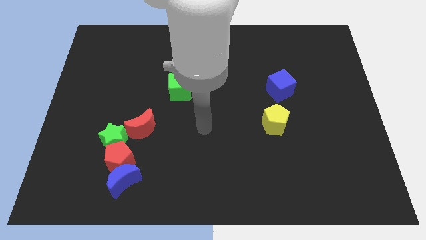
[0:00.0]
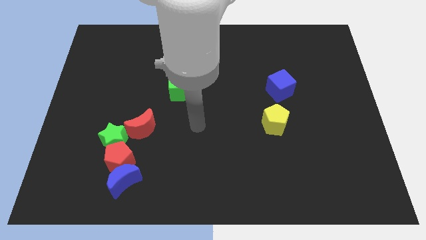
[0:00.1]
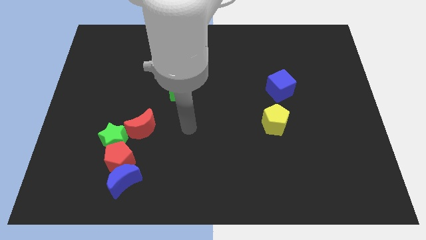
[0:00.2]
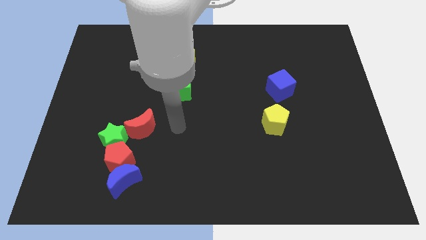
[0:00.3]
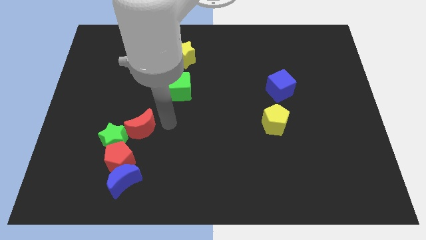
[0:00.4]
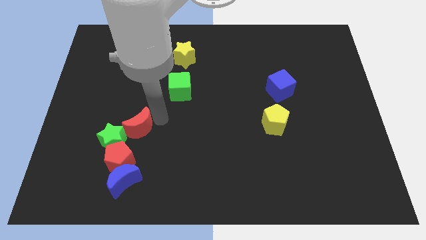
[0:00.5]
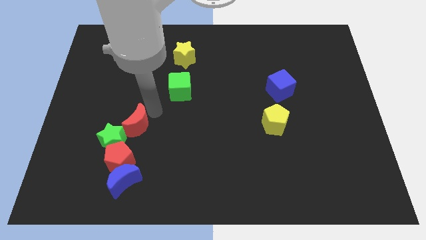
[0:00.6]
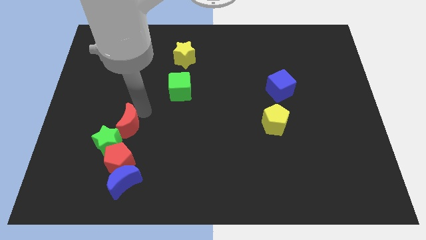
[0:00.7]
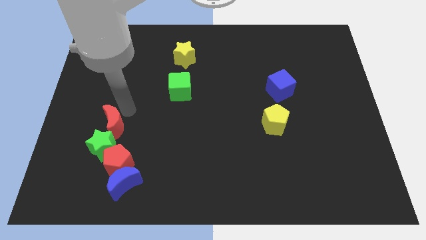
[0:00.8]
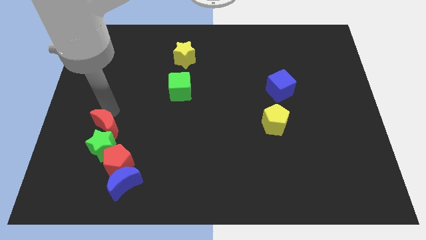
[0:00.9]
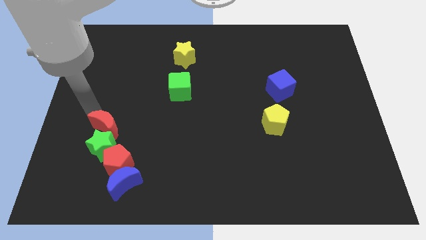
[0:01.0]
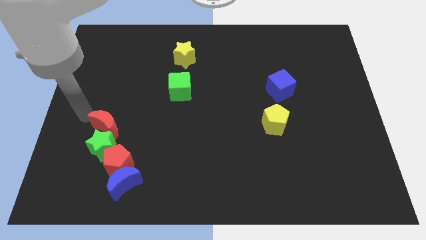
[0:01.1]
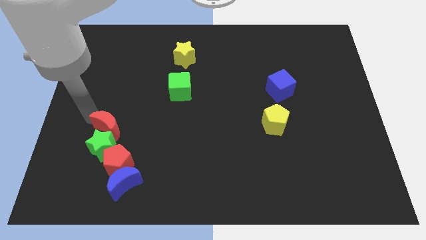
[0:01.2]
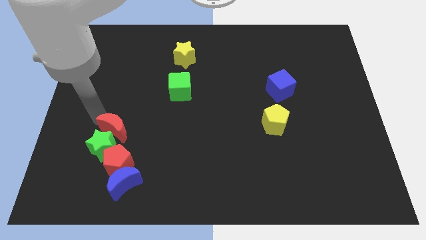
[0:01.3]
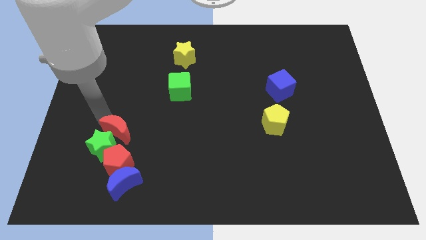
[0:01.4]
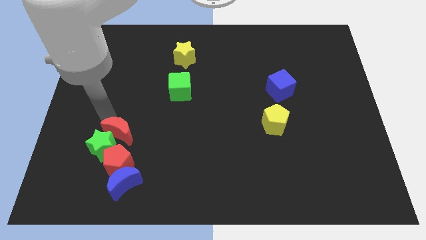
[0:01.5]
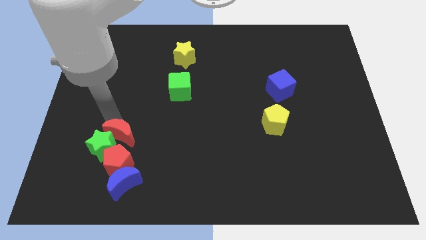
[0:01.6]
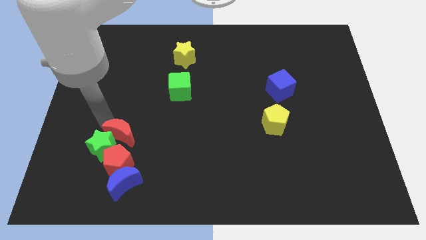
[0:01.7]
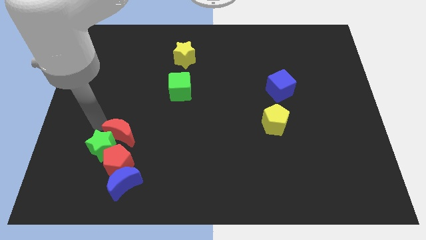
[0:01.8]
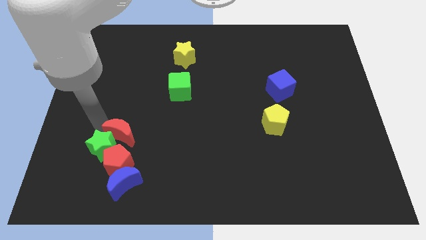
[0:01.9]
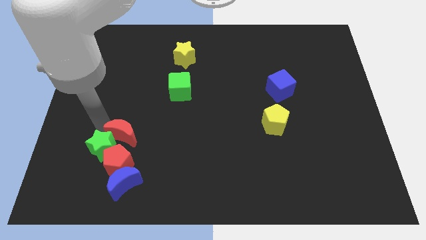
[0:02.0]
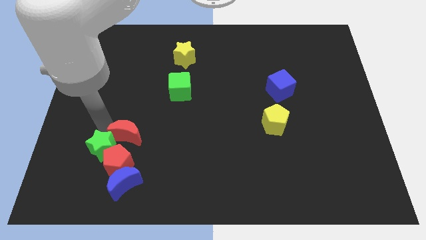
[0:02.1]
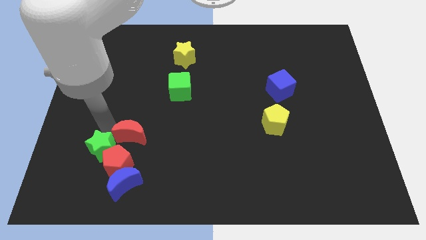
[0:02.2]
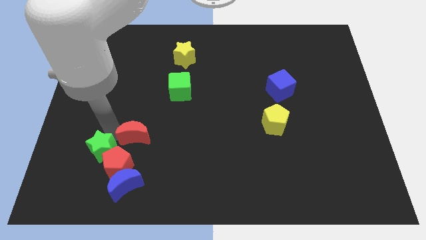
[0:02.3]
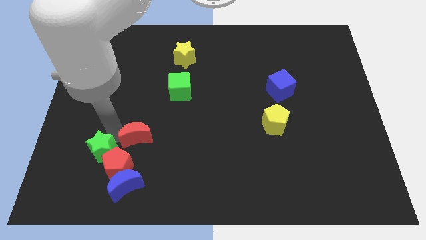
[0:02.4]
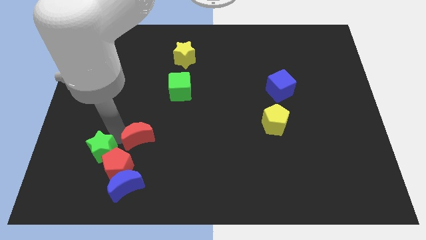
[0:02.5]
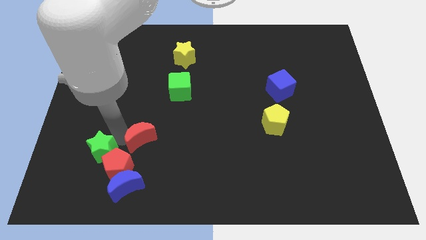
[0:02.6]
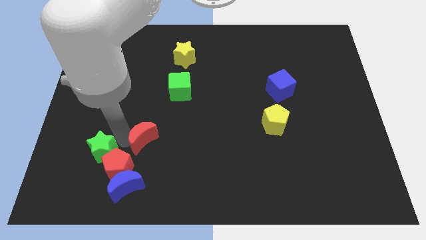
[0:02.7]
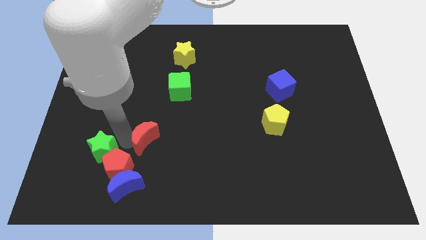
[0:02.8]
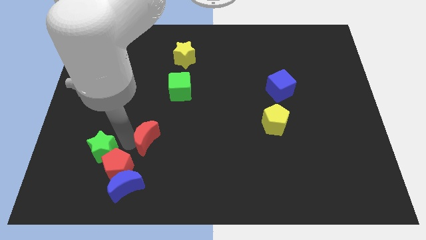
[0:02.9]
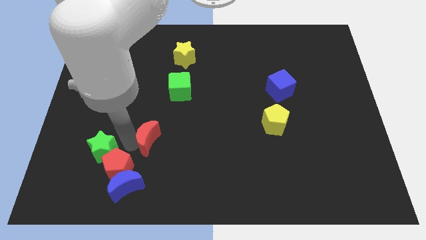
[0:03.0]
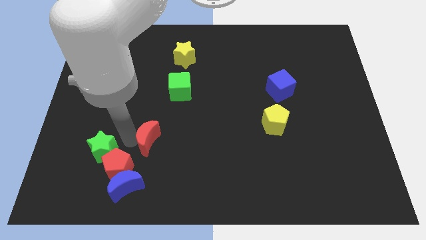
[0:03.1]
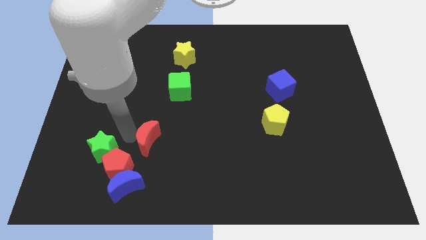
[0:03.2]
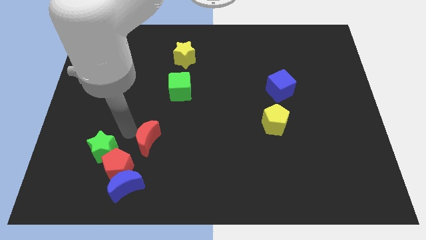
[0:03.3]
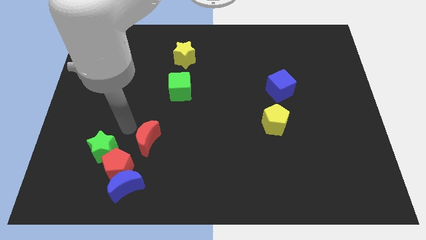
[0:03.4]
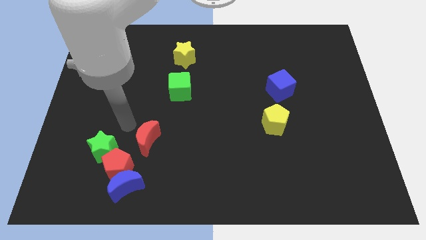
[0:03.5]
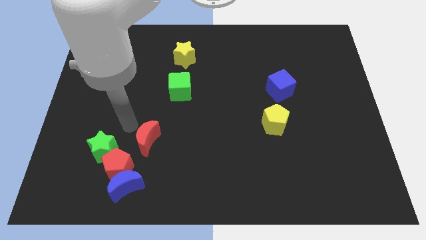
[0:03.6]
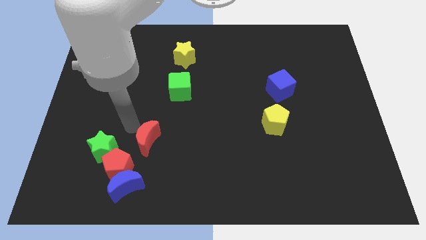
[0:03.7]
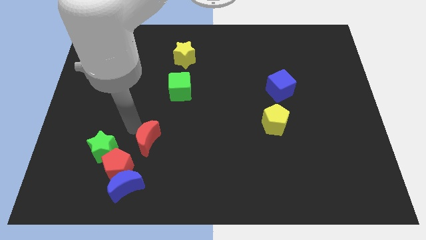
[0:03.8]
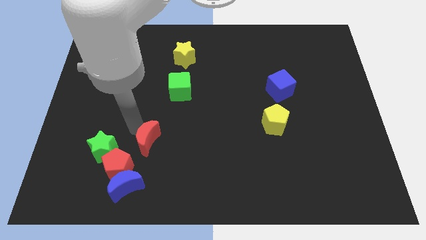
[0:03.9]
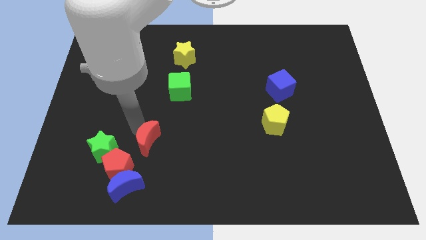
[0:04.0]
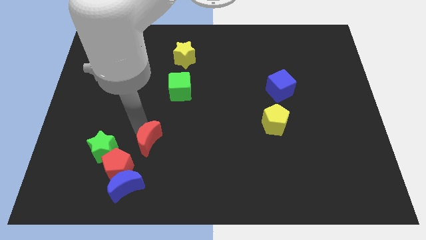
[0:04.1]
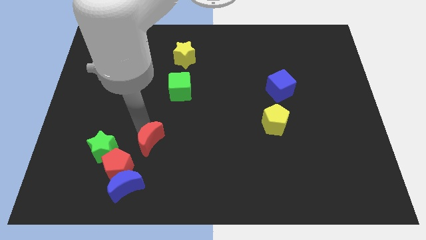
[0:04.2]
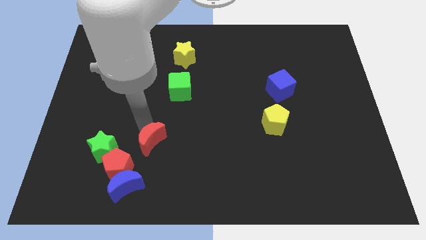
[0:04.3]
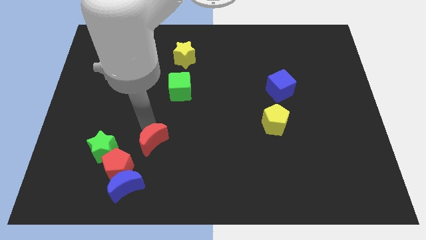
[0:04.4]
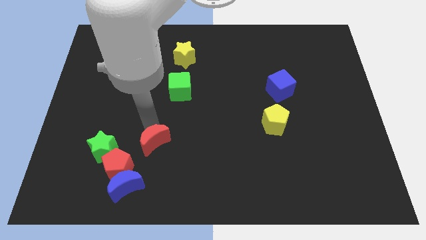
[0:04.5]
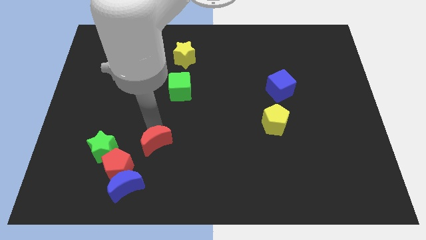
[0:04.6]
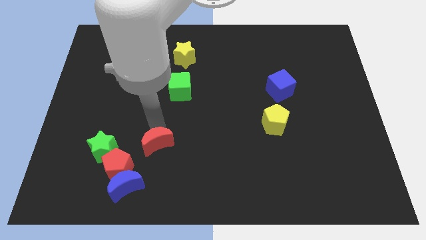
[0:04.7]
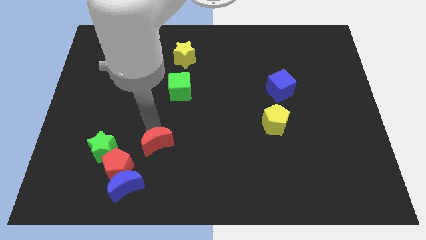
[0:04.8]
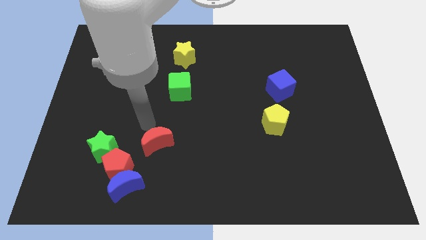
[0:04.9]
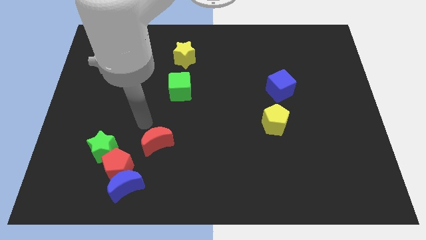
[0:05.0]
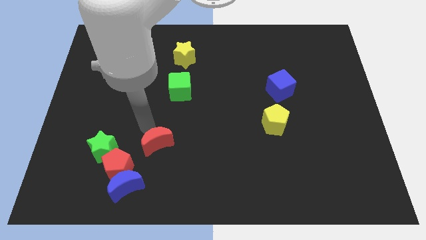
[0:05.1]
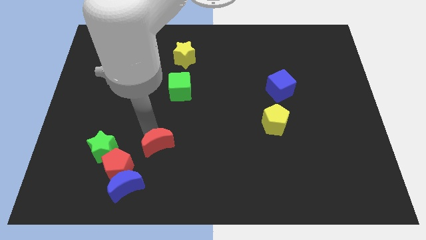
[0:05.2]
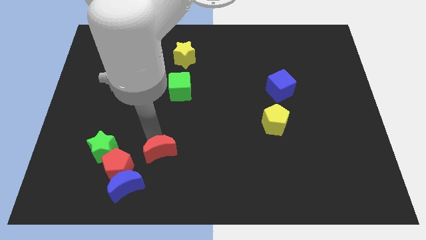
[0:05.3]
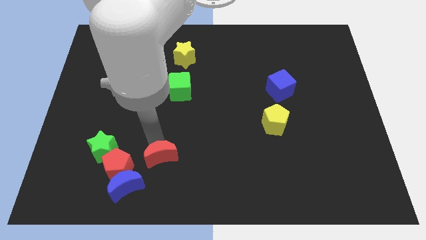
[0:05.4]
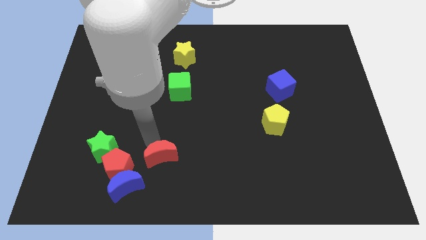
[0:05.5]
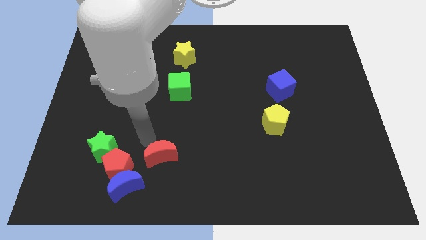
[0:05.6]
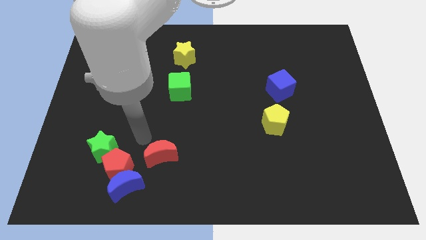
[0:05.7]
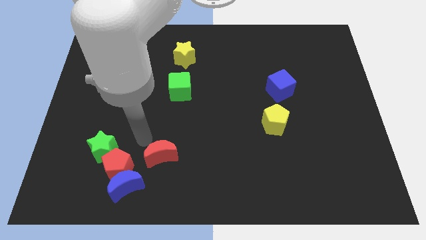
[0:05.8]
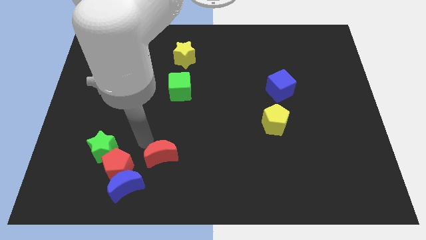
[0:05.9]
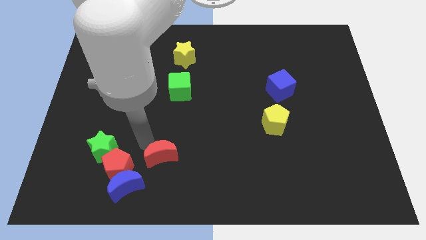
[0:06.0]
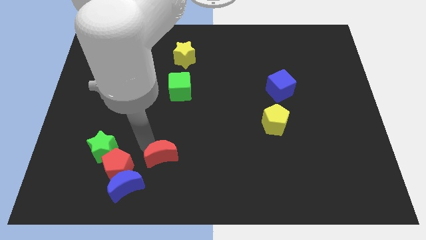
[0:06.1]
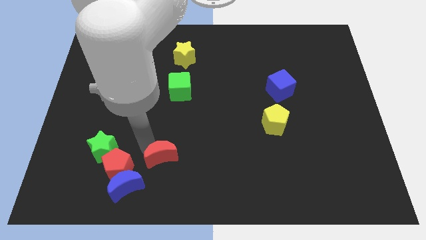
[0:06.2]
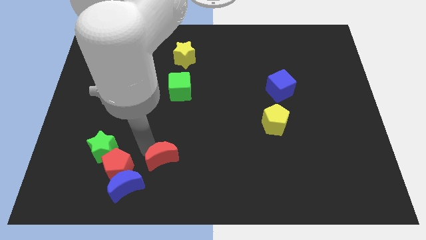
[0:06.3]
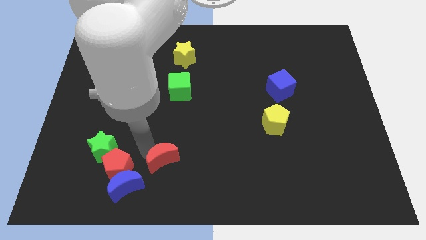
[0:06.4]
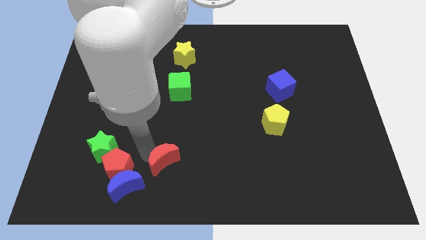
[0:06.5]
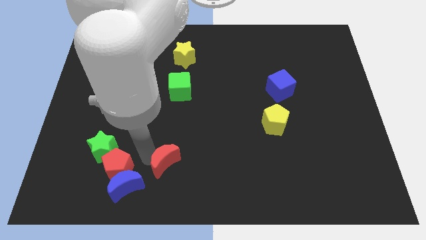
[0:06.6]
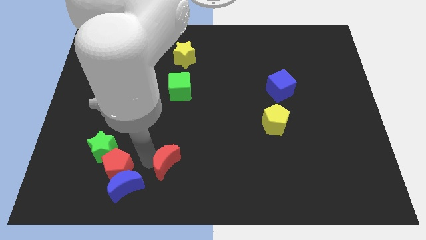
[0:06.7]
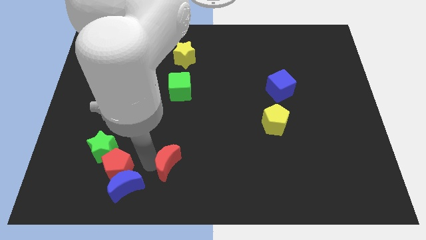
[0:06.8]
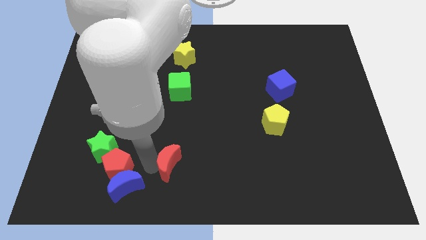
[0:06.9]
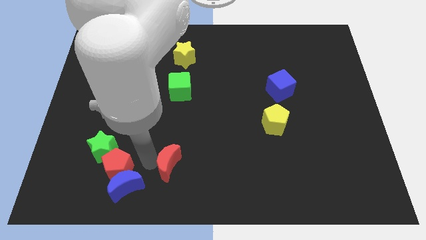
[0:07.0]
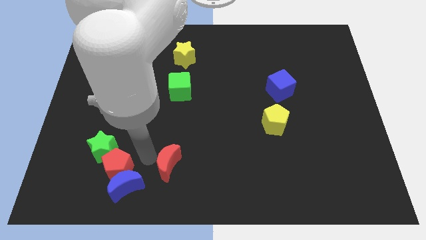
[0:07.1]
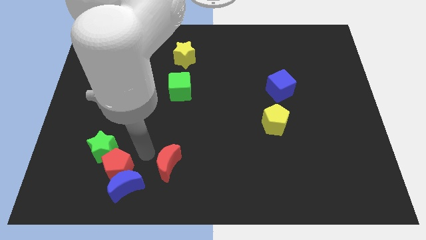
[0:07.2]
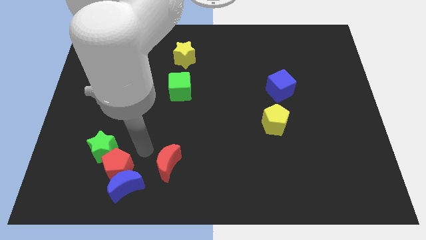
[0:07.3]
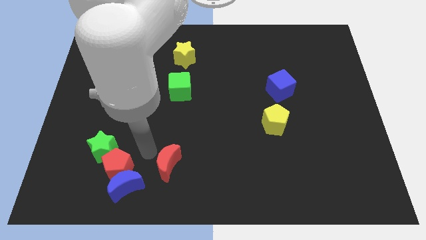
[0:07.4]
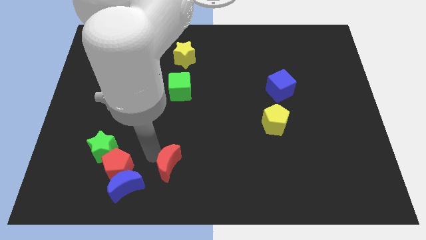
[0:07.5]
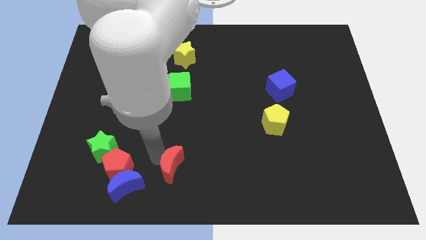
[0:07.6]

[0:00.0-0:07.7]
push the red moon to the bottom
